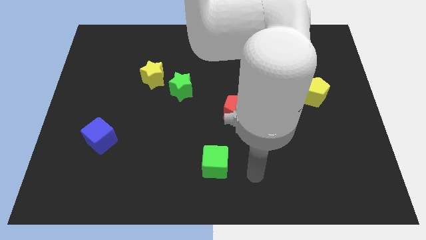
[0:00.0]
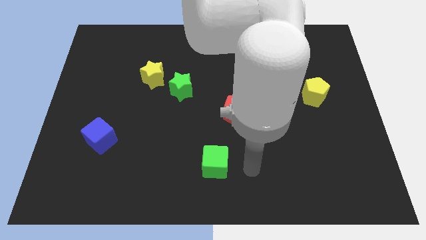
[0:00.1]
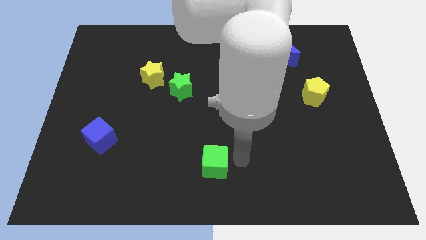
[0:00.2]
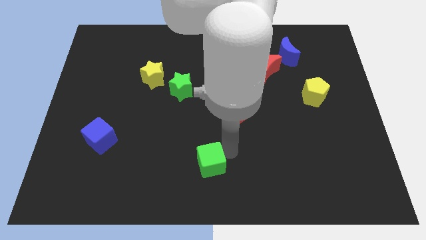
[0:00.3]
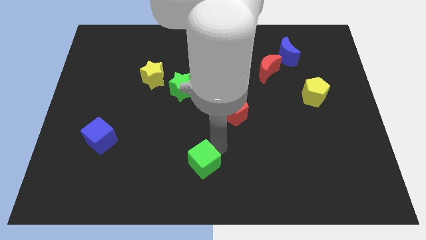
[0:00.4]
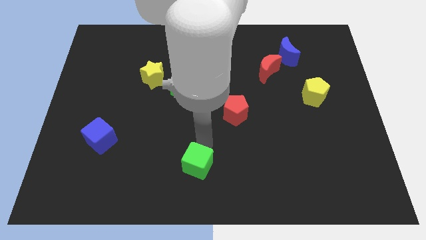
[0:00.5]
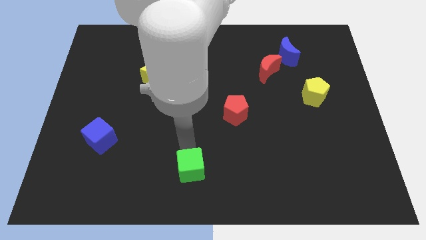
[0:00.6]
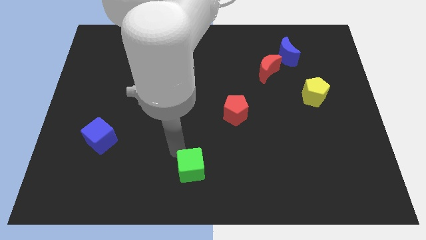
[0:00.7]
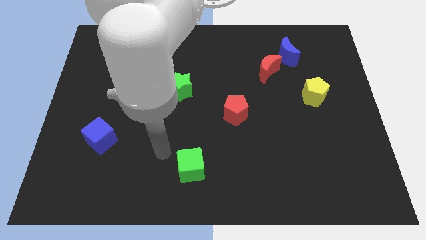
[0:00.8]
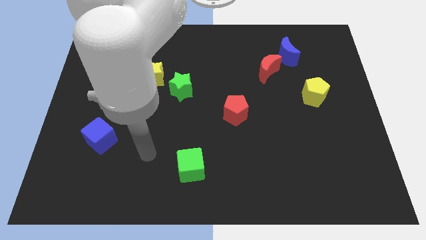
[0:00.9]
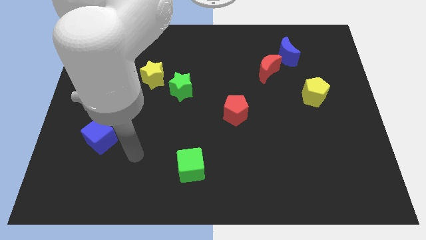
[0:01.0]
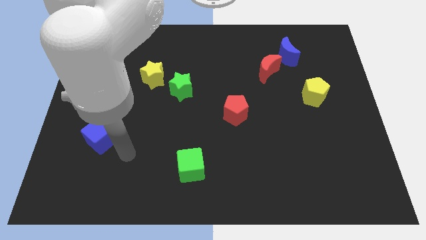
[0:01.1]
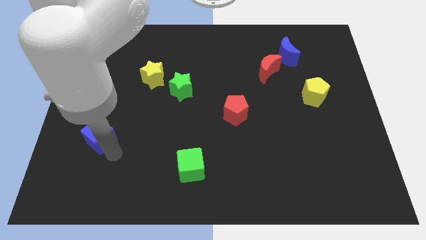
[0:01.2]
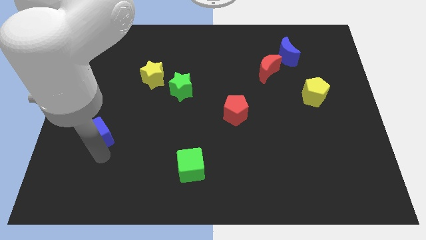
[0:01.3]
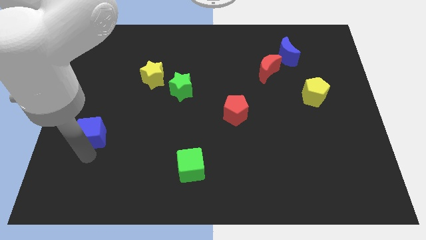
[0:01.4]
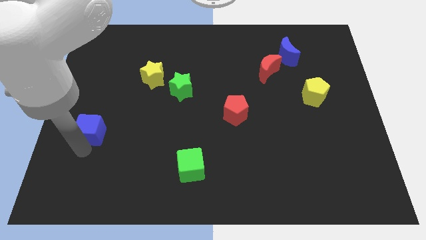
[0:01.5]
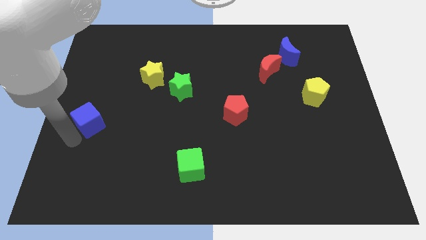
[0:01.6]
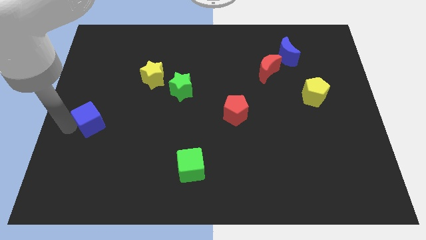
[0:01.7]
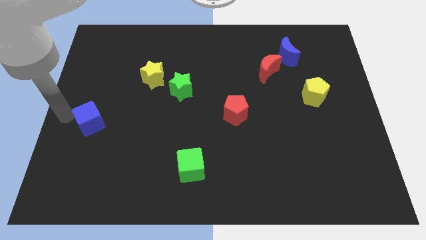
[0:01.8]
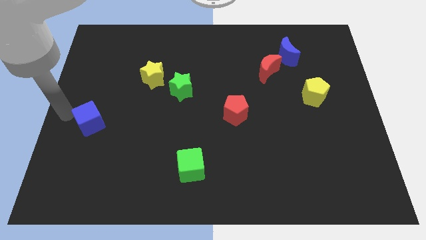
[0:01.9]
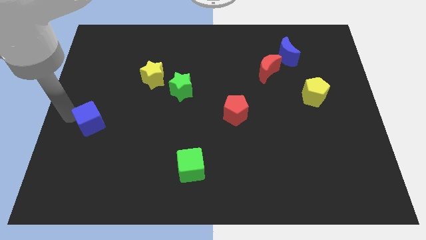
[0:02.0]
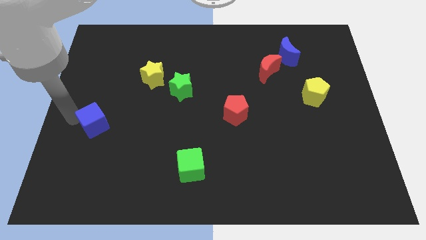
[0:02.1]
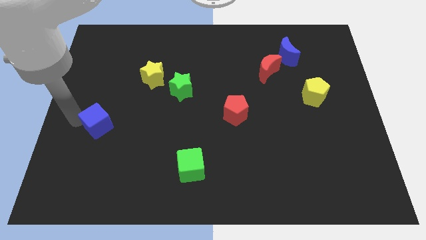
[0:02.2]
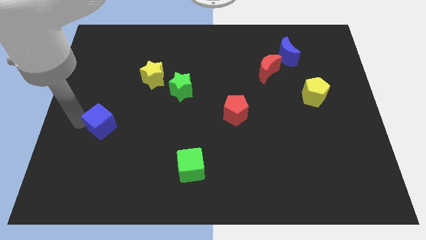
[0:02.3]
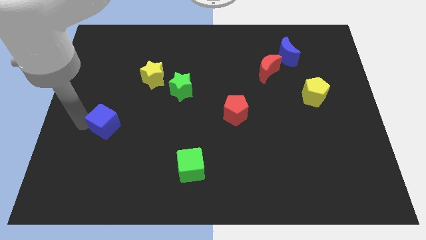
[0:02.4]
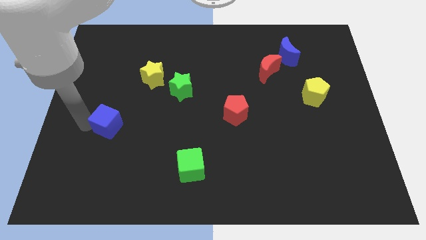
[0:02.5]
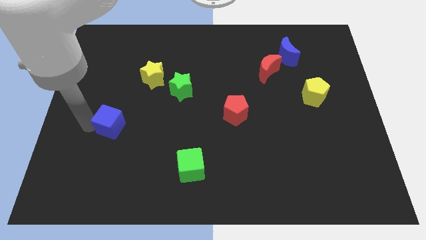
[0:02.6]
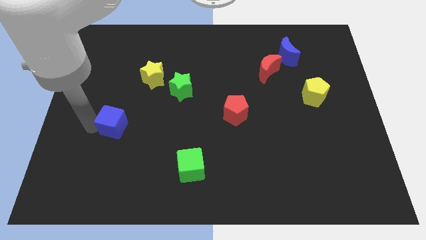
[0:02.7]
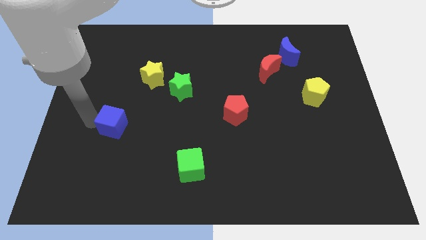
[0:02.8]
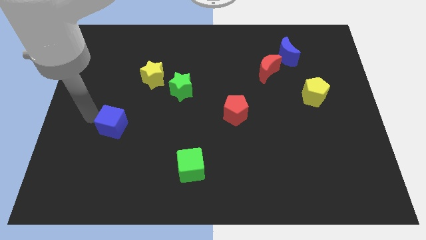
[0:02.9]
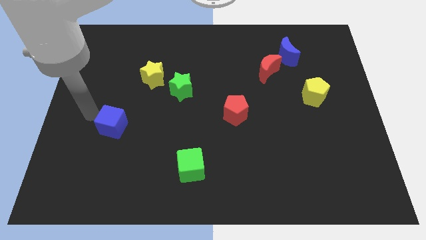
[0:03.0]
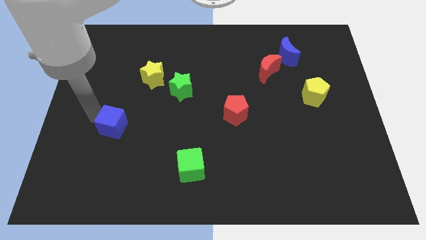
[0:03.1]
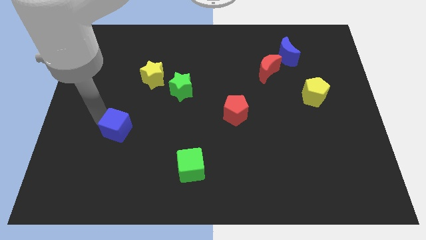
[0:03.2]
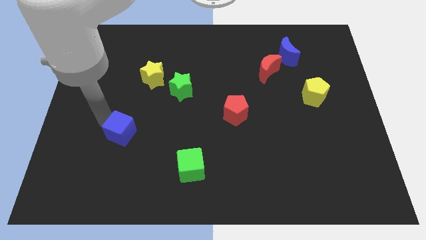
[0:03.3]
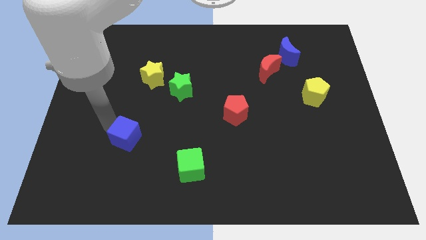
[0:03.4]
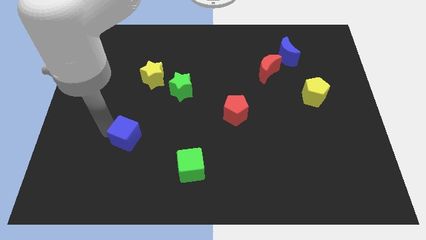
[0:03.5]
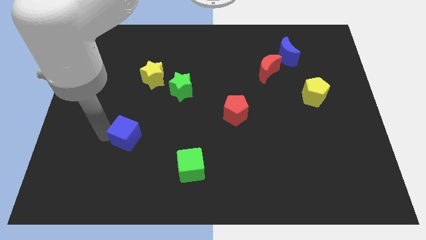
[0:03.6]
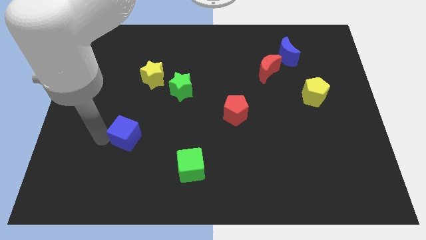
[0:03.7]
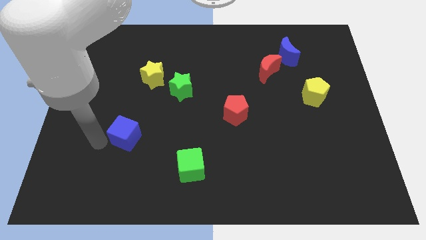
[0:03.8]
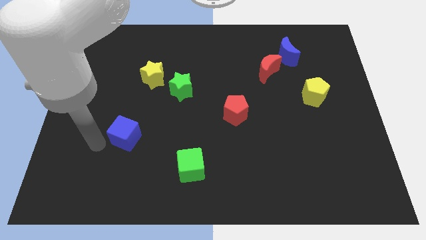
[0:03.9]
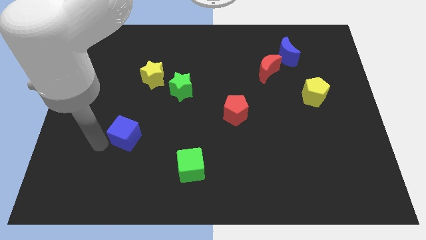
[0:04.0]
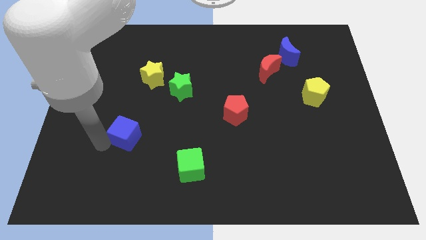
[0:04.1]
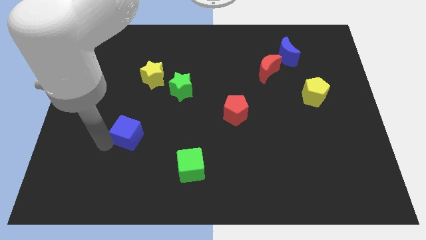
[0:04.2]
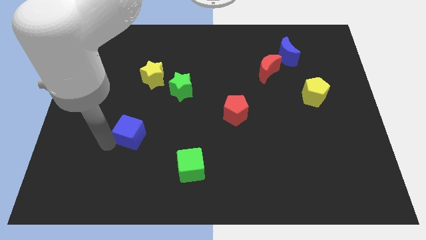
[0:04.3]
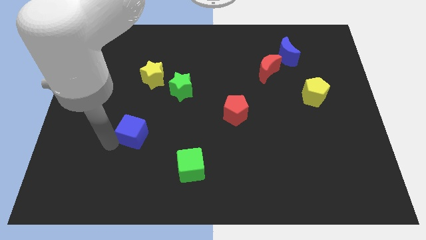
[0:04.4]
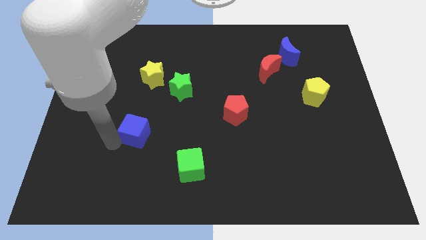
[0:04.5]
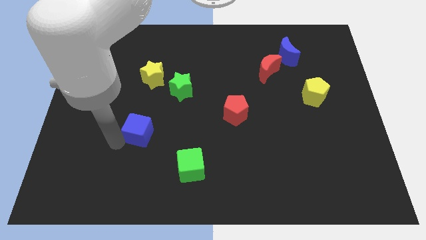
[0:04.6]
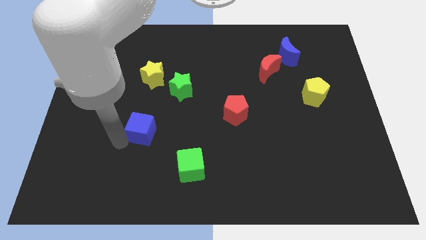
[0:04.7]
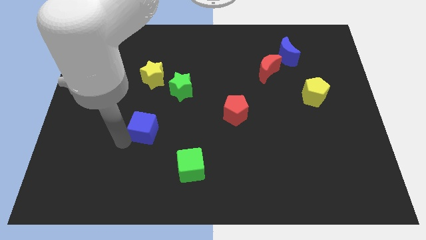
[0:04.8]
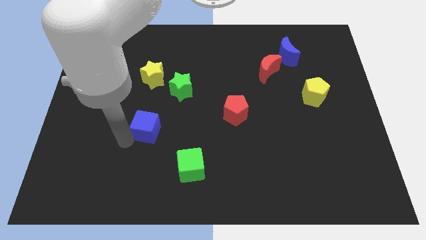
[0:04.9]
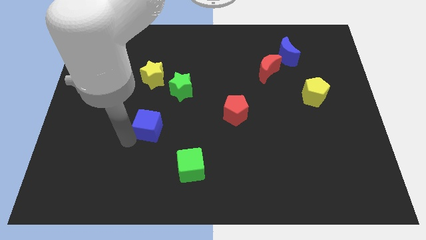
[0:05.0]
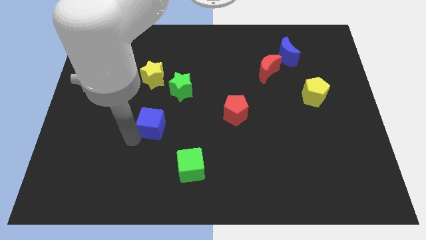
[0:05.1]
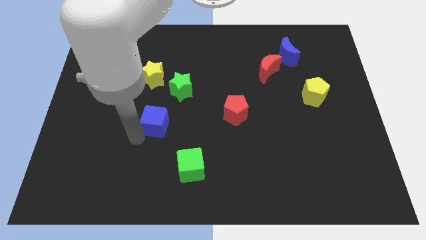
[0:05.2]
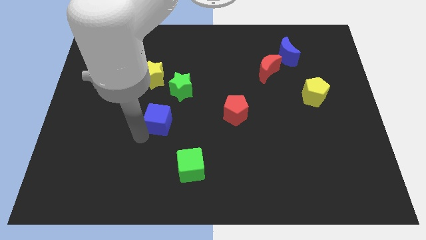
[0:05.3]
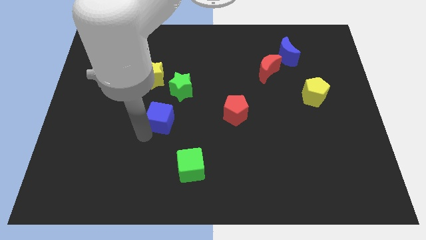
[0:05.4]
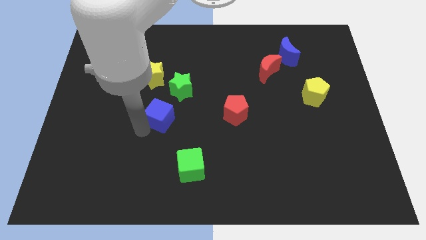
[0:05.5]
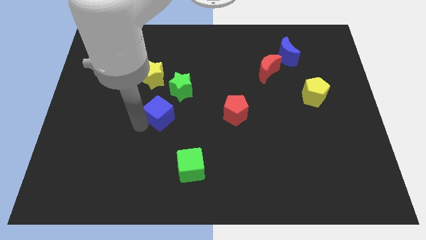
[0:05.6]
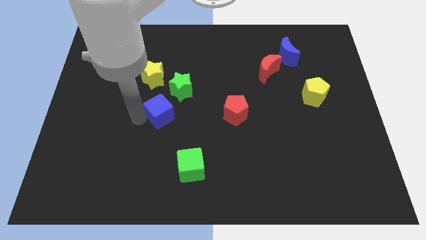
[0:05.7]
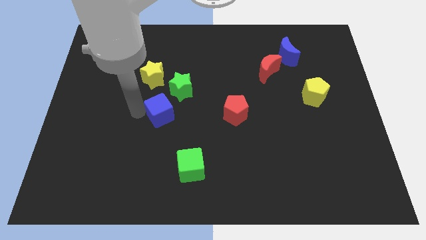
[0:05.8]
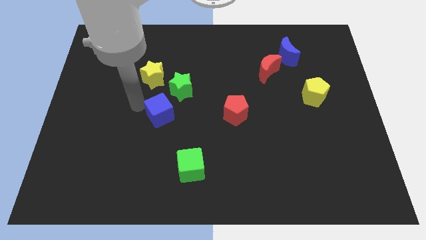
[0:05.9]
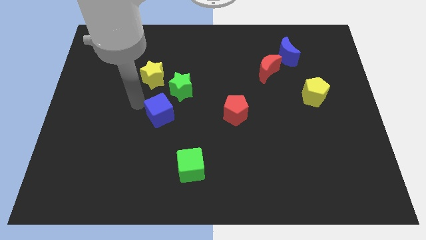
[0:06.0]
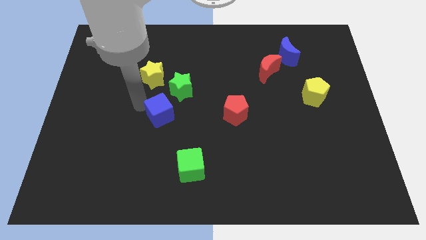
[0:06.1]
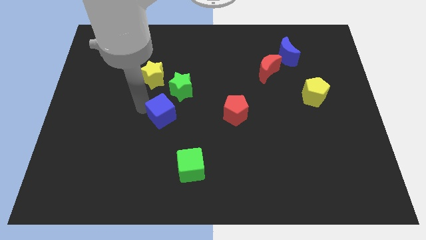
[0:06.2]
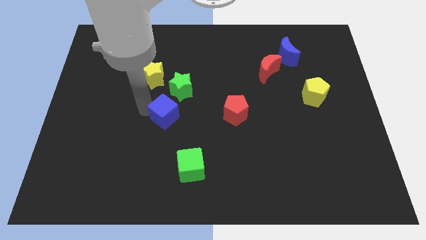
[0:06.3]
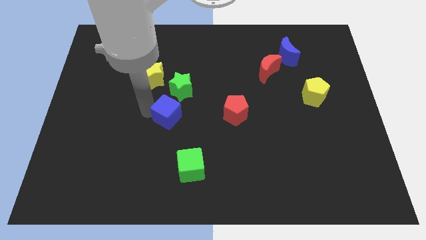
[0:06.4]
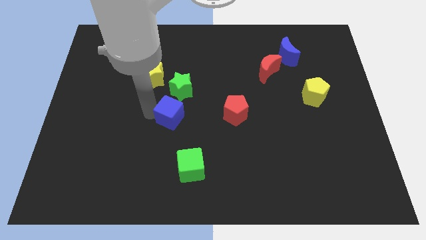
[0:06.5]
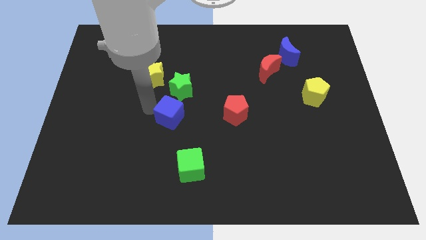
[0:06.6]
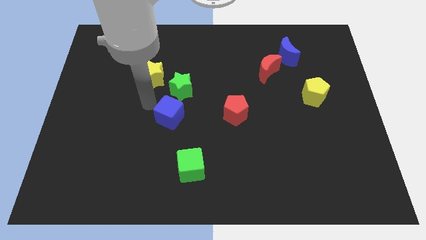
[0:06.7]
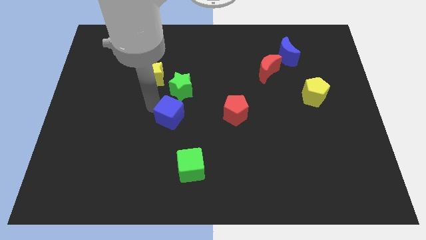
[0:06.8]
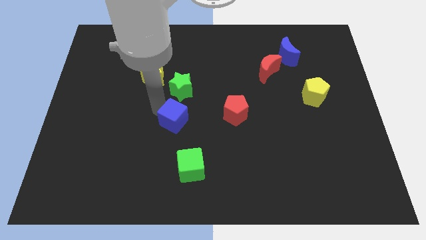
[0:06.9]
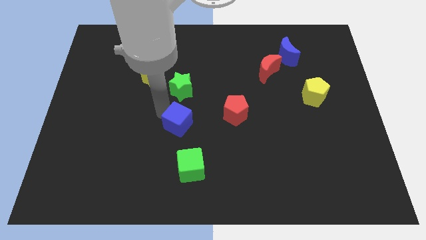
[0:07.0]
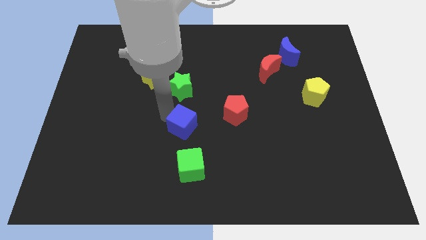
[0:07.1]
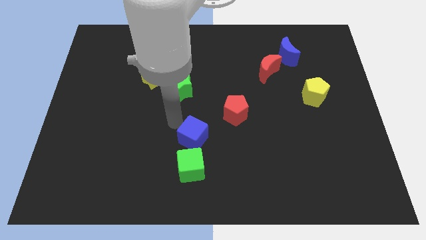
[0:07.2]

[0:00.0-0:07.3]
move the blue cube right

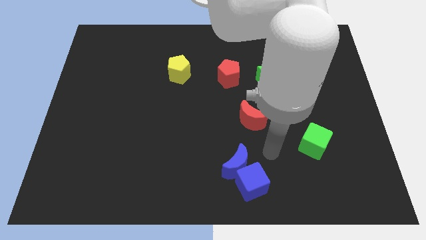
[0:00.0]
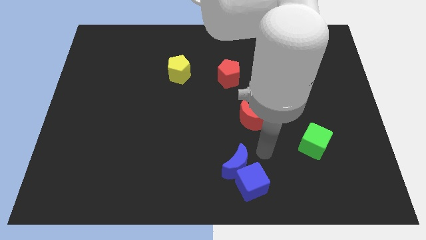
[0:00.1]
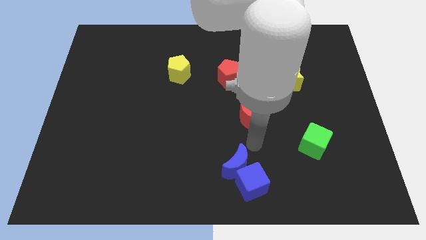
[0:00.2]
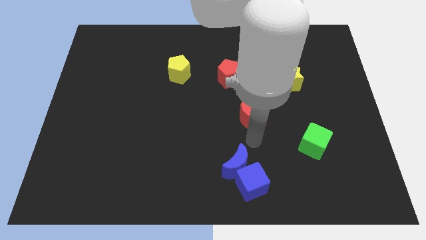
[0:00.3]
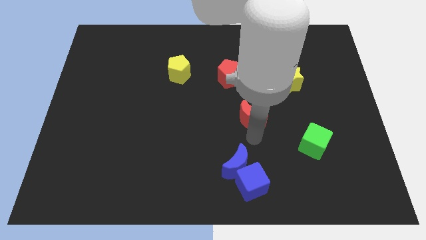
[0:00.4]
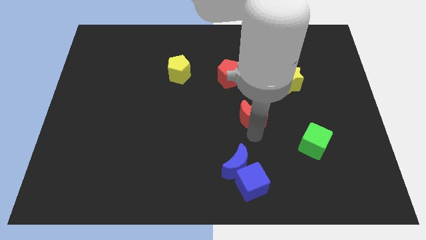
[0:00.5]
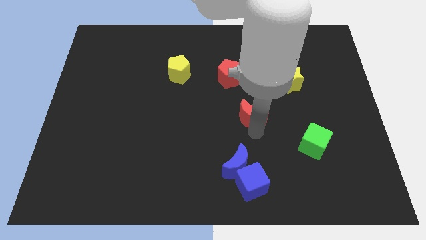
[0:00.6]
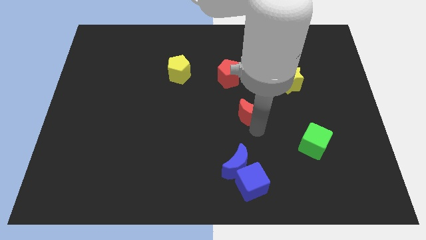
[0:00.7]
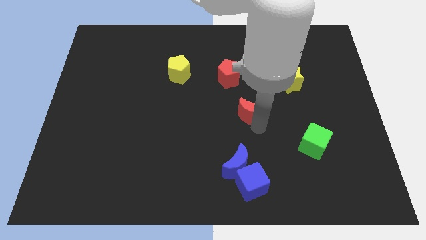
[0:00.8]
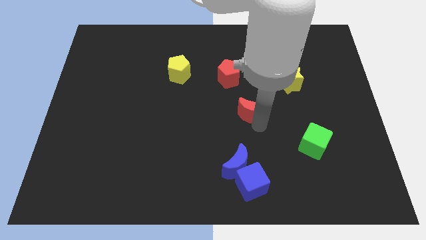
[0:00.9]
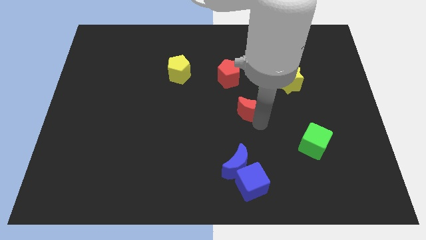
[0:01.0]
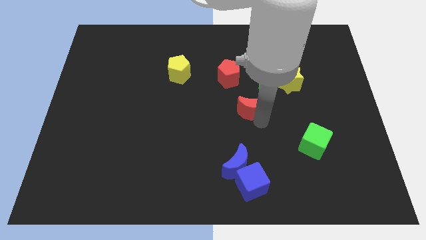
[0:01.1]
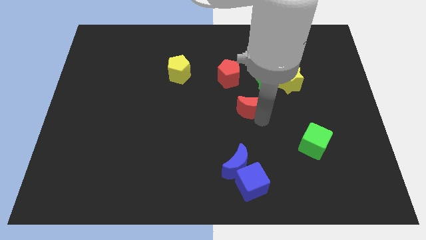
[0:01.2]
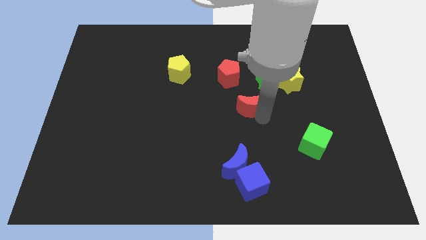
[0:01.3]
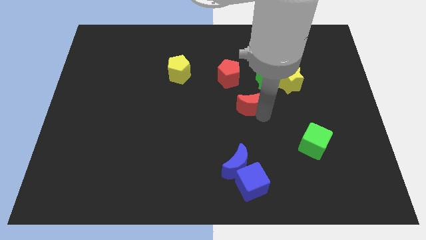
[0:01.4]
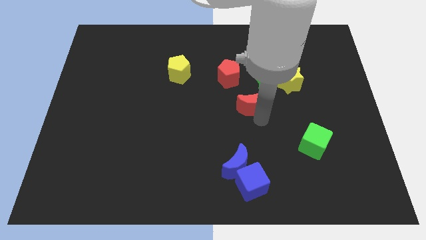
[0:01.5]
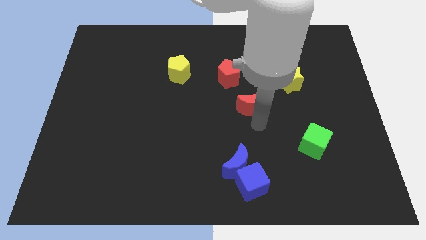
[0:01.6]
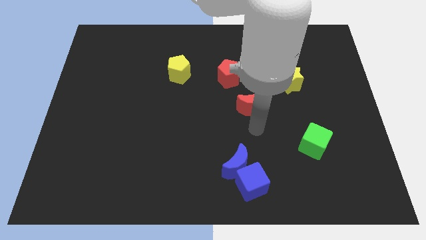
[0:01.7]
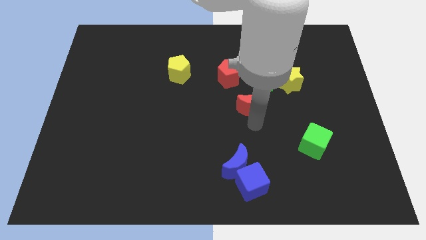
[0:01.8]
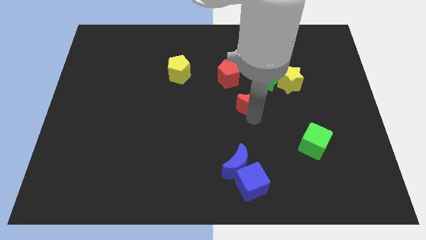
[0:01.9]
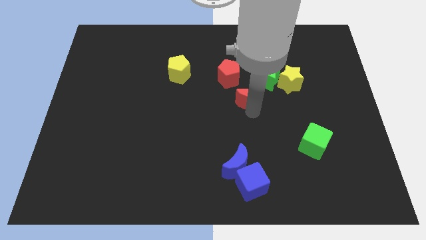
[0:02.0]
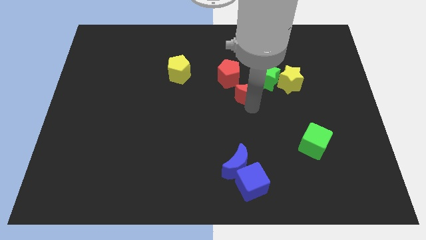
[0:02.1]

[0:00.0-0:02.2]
push the red moon upwards somewhat
